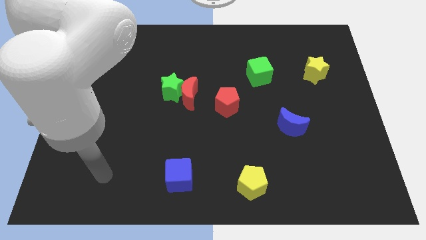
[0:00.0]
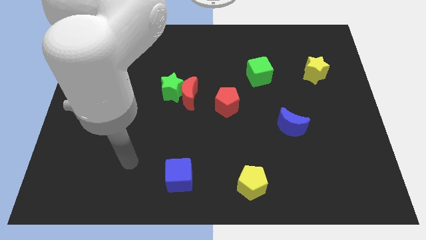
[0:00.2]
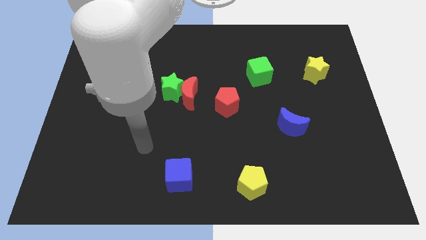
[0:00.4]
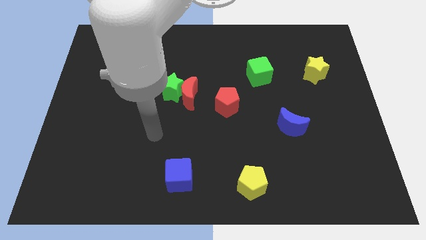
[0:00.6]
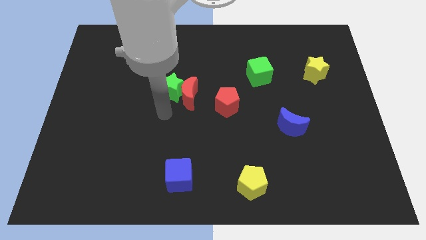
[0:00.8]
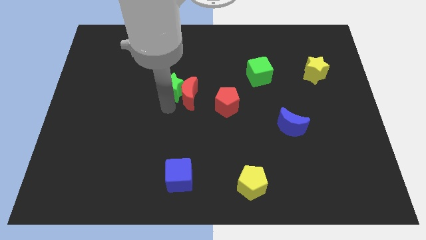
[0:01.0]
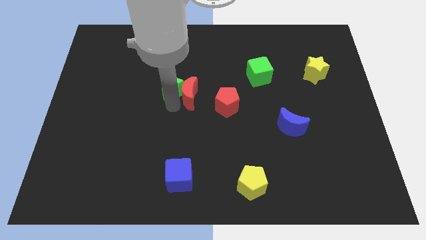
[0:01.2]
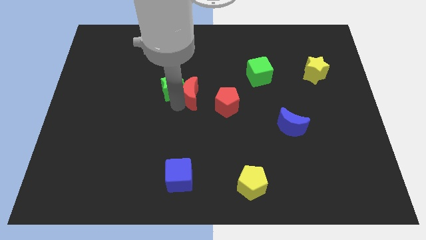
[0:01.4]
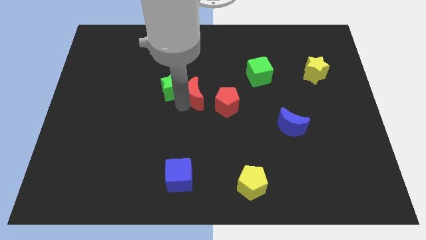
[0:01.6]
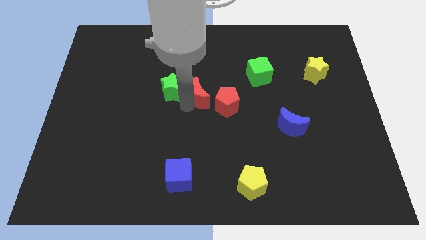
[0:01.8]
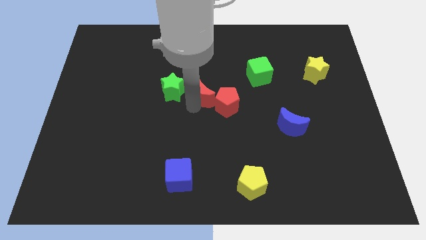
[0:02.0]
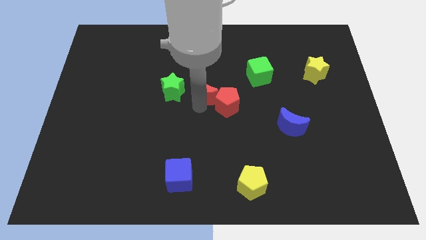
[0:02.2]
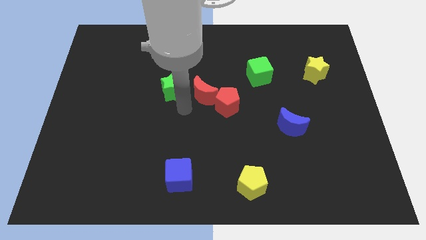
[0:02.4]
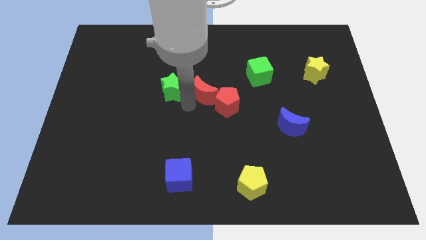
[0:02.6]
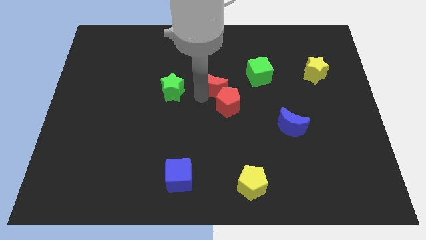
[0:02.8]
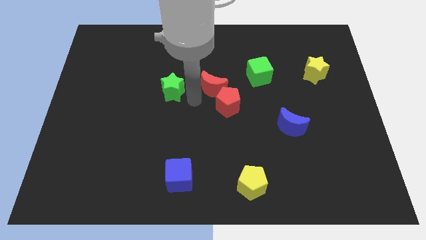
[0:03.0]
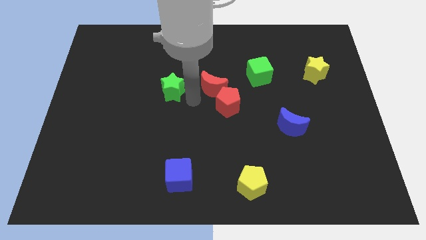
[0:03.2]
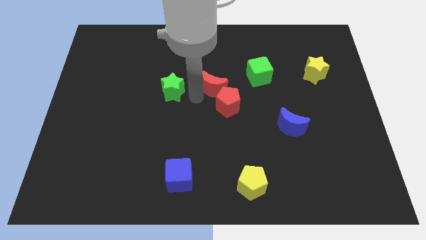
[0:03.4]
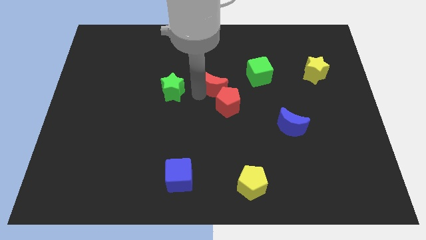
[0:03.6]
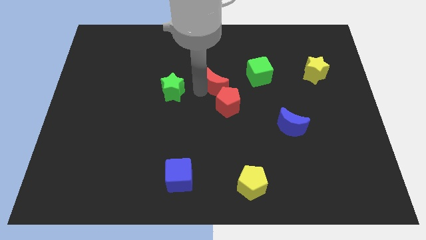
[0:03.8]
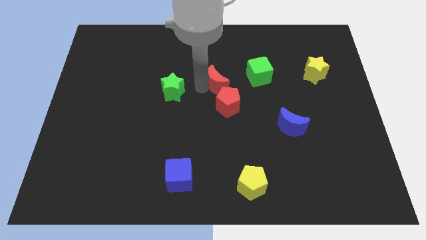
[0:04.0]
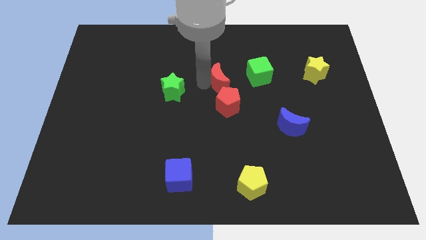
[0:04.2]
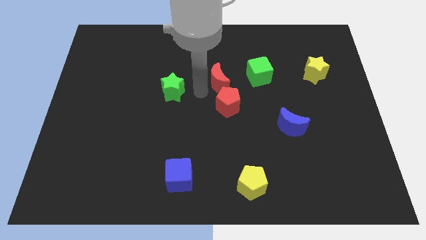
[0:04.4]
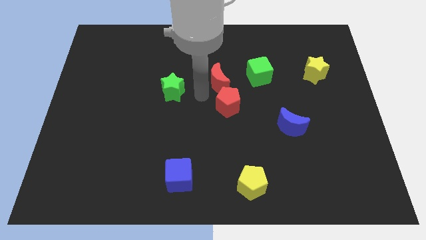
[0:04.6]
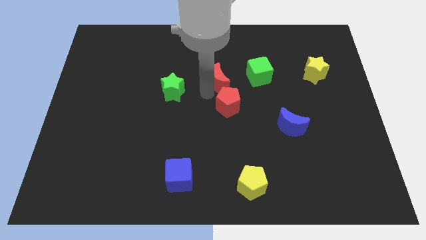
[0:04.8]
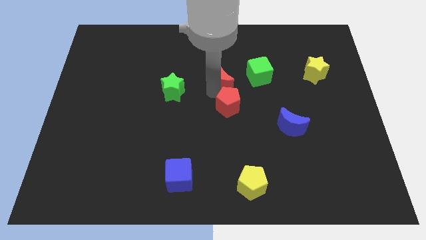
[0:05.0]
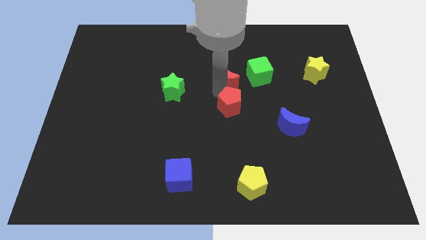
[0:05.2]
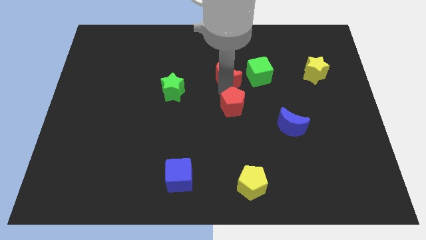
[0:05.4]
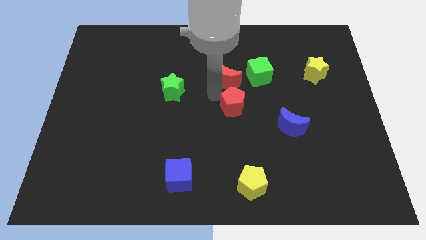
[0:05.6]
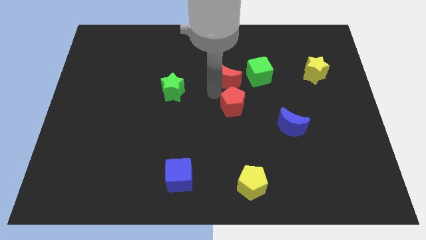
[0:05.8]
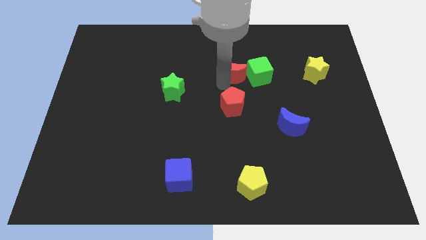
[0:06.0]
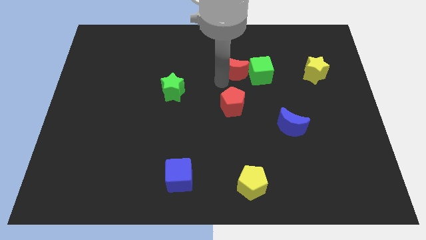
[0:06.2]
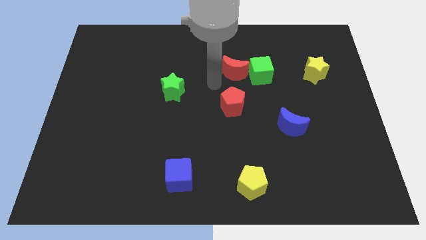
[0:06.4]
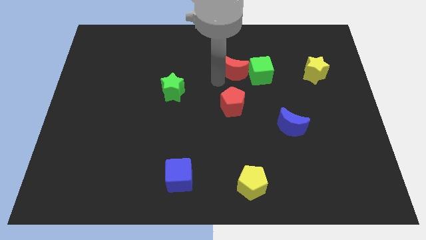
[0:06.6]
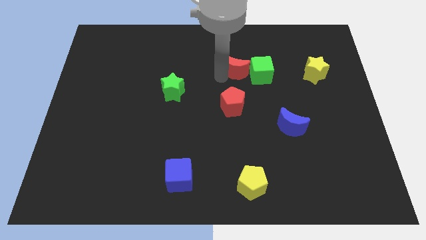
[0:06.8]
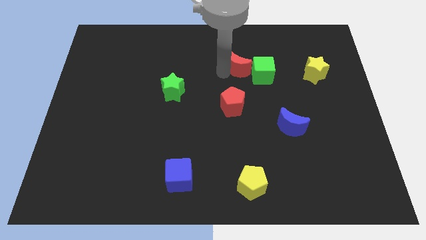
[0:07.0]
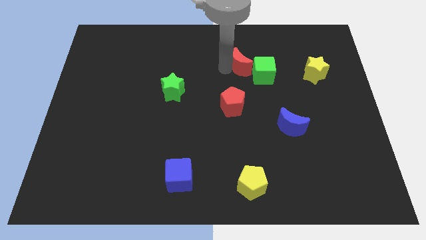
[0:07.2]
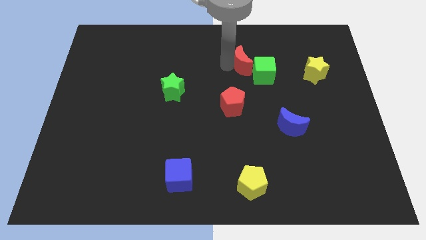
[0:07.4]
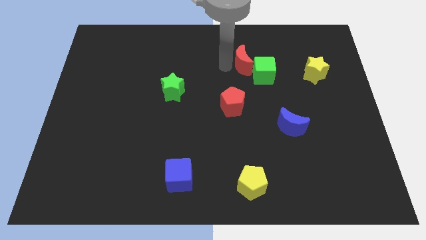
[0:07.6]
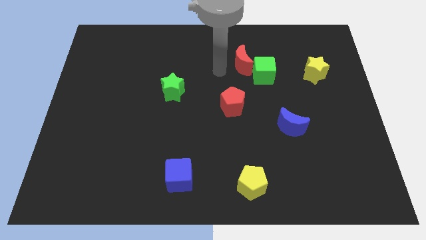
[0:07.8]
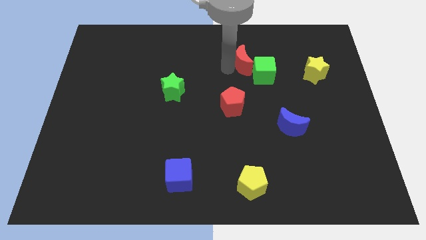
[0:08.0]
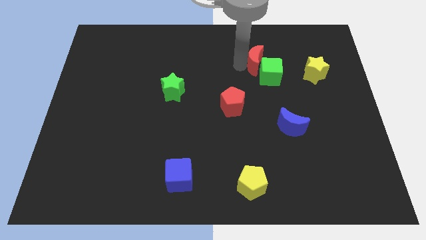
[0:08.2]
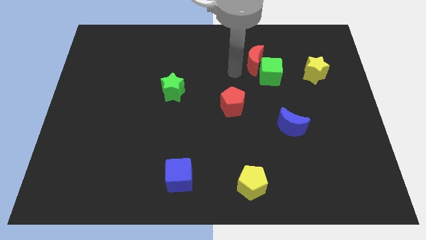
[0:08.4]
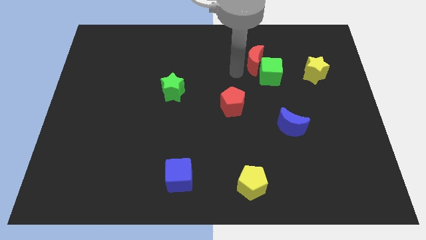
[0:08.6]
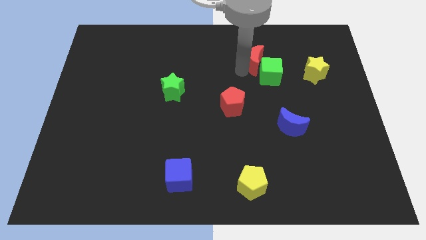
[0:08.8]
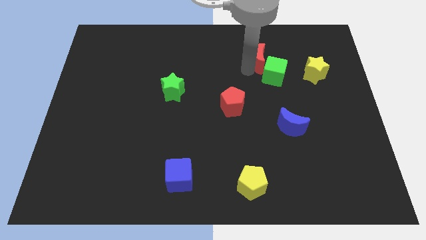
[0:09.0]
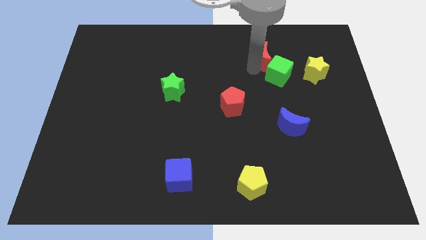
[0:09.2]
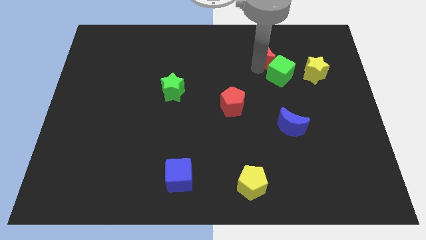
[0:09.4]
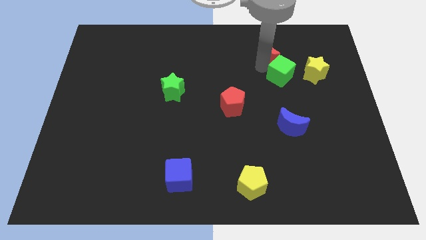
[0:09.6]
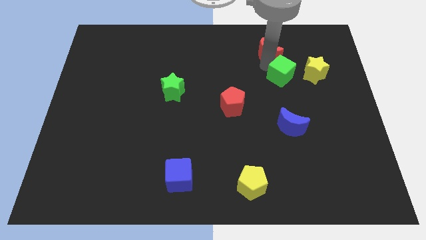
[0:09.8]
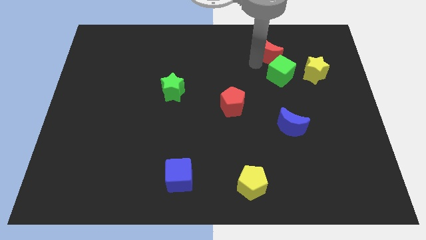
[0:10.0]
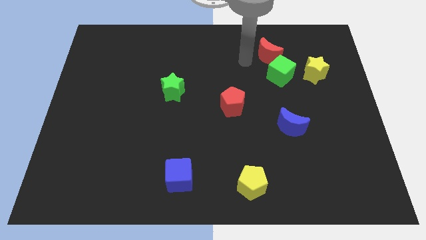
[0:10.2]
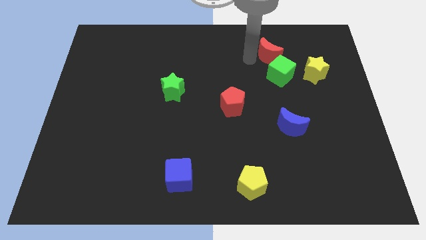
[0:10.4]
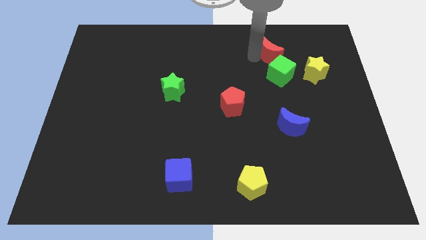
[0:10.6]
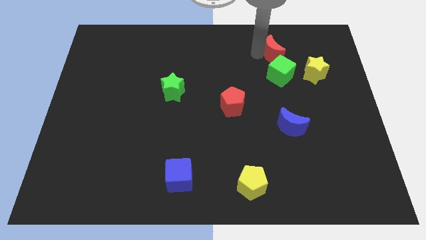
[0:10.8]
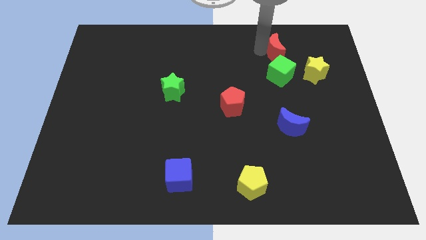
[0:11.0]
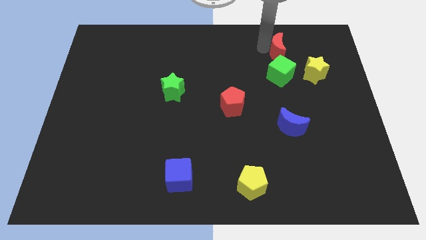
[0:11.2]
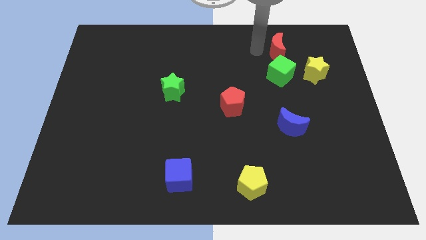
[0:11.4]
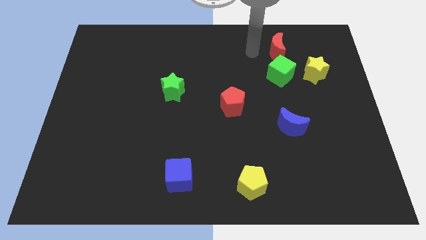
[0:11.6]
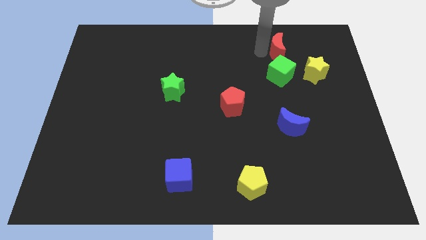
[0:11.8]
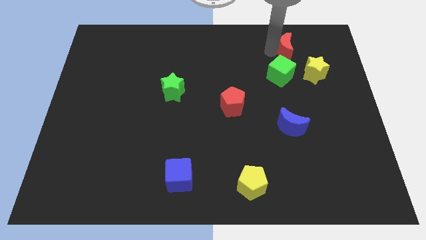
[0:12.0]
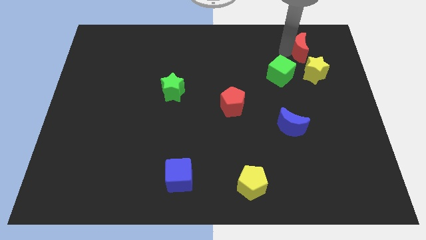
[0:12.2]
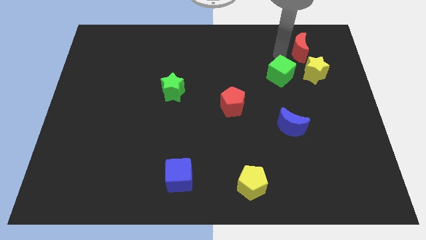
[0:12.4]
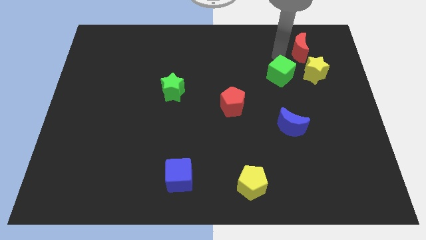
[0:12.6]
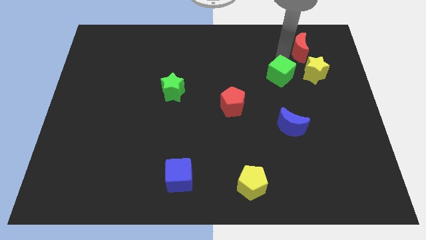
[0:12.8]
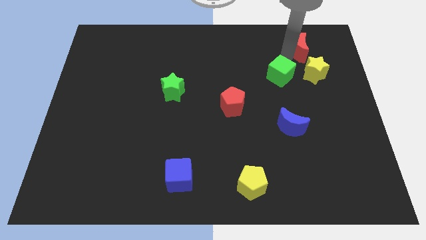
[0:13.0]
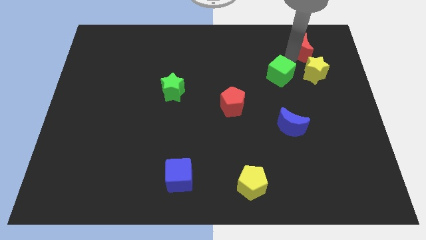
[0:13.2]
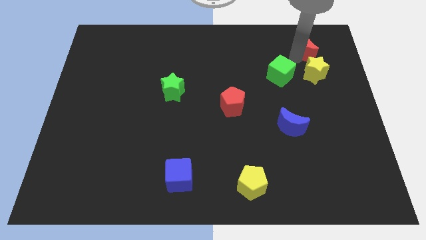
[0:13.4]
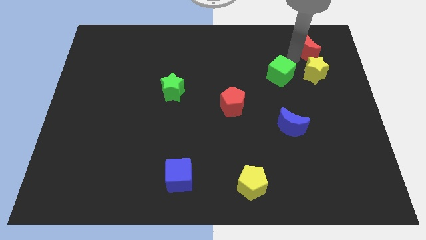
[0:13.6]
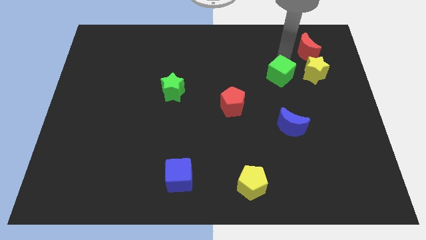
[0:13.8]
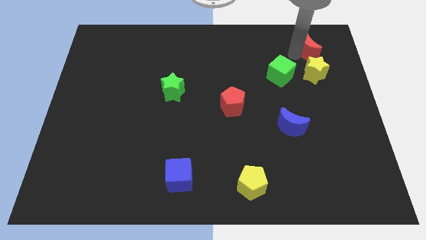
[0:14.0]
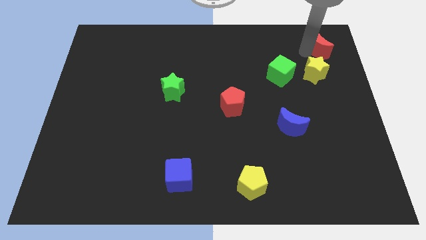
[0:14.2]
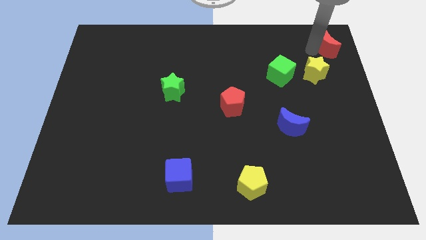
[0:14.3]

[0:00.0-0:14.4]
put the red moon to the top right
